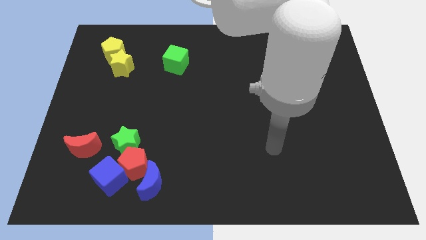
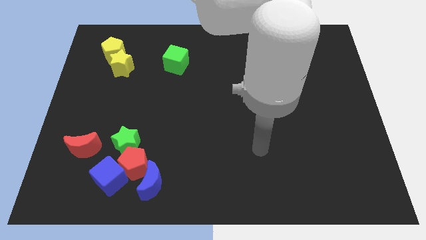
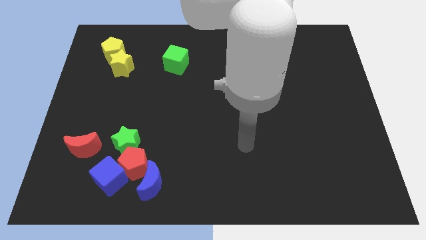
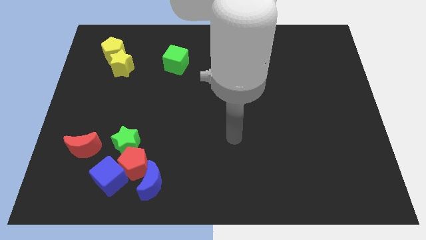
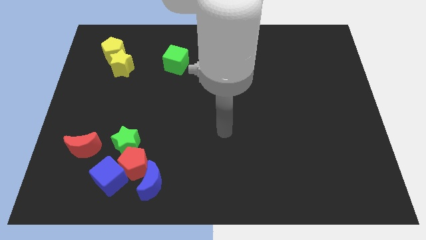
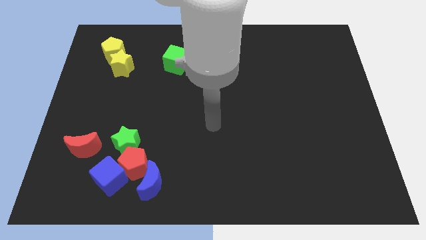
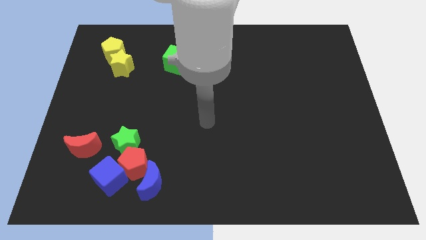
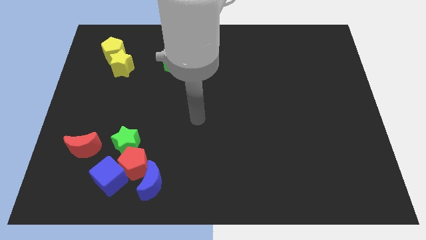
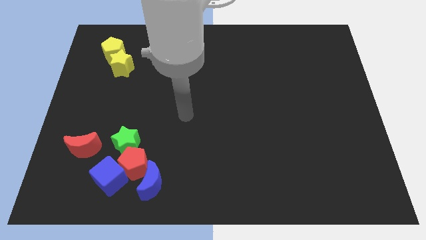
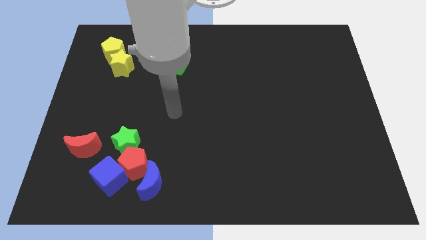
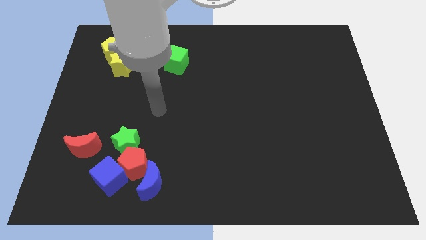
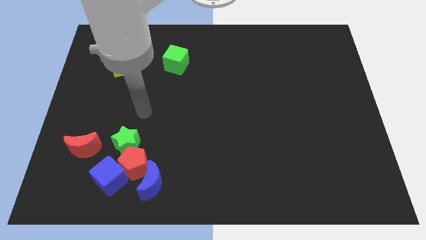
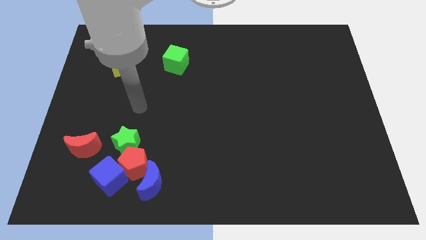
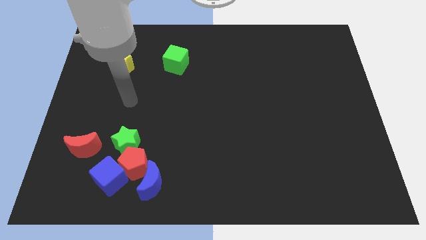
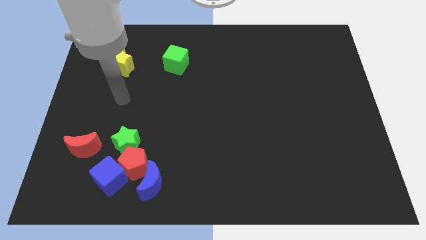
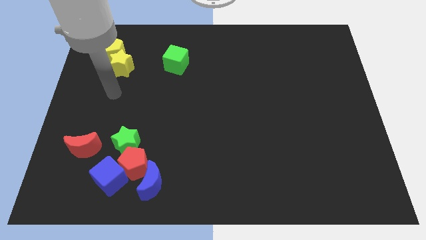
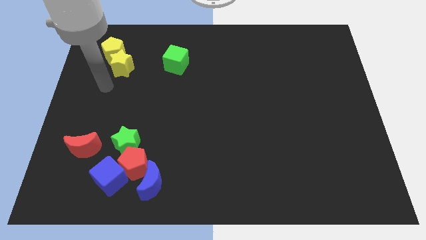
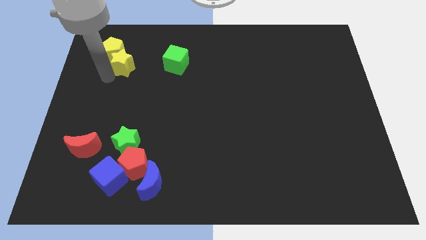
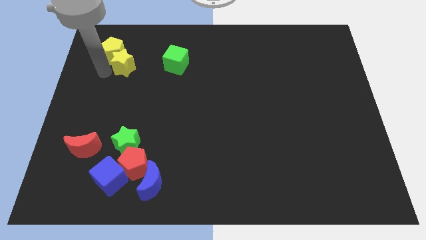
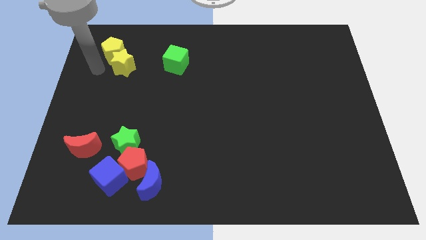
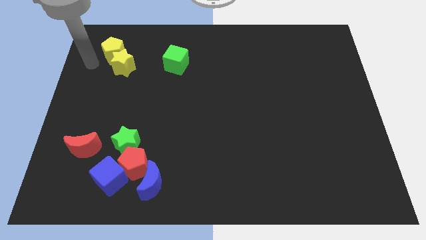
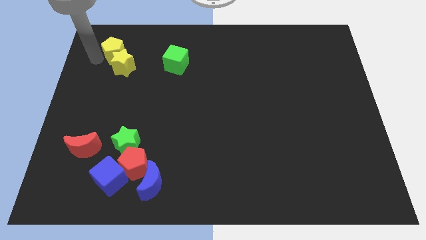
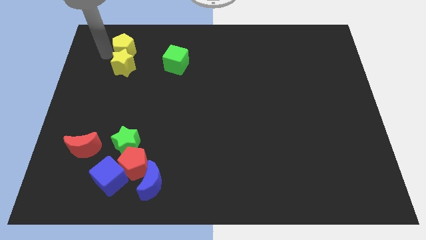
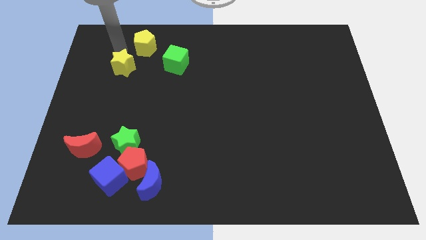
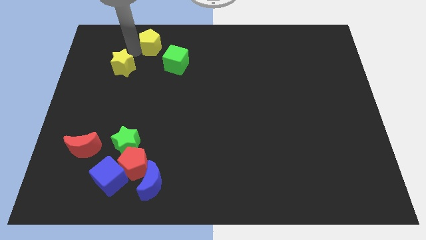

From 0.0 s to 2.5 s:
move the yellow star away from the yellow pentagon

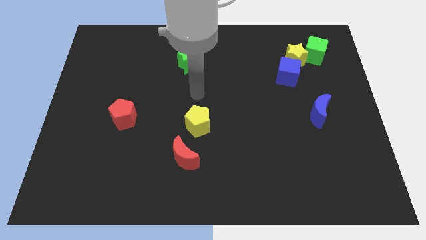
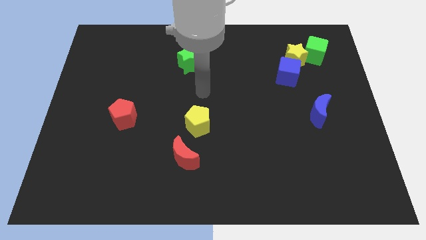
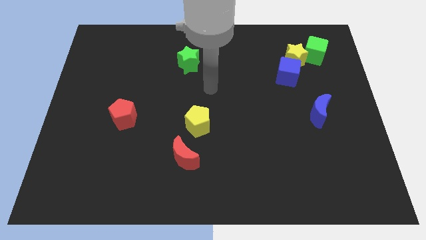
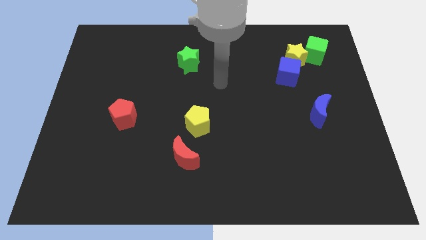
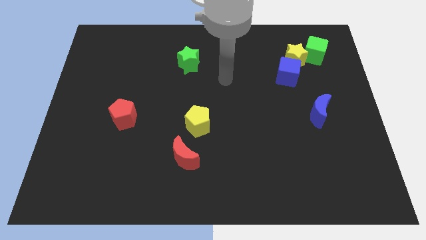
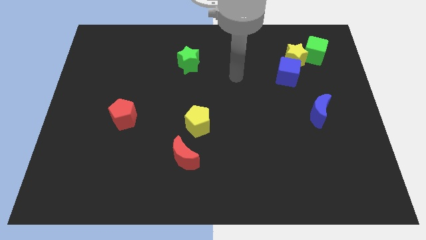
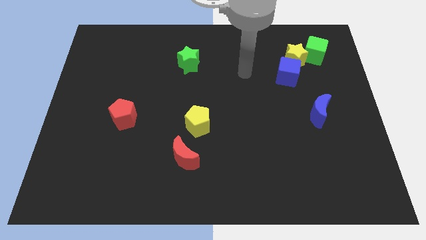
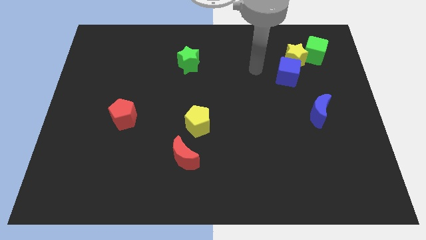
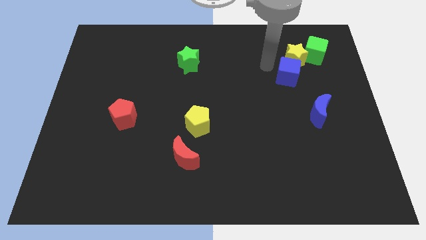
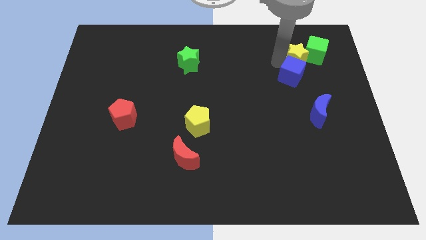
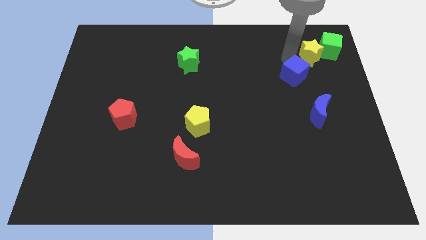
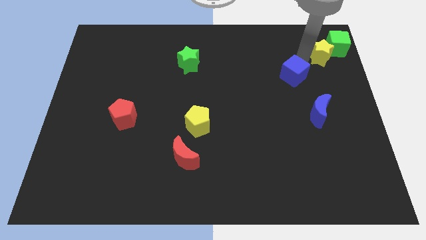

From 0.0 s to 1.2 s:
move the blue cube away from the yellow star

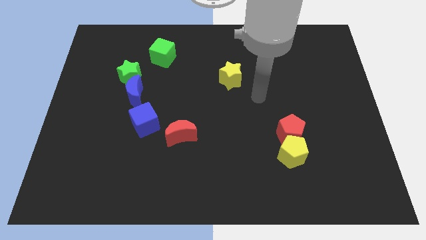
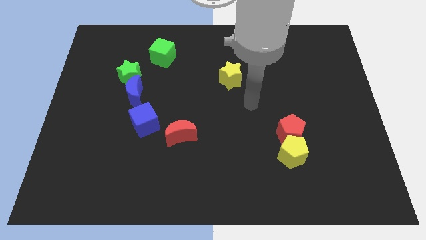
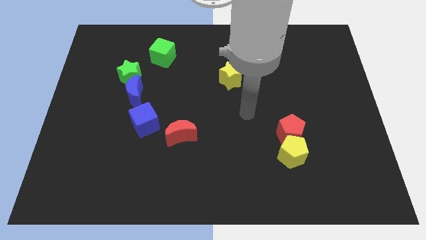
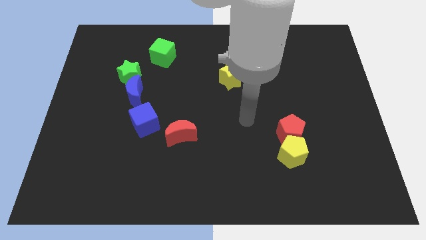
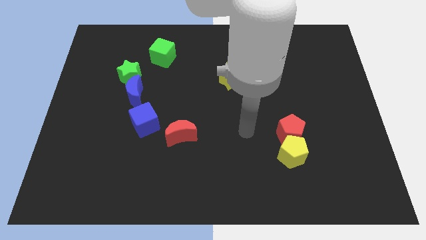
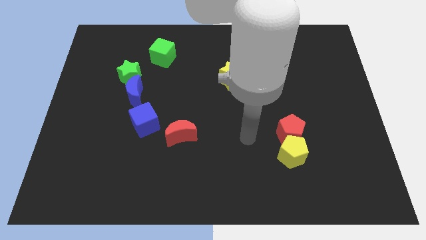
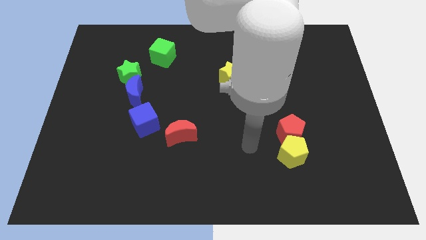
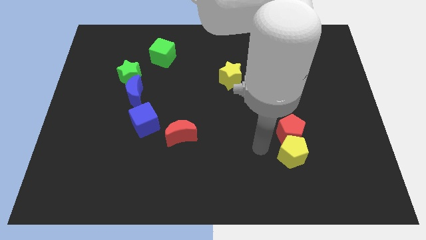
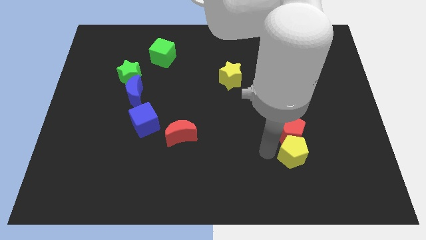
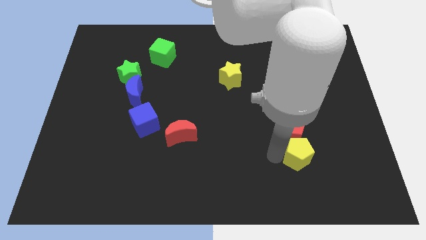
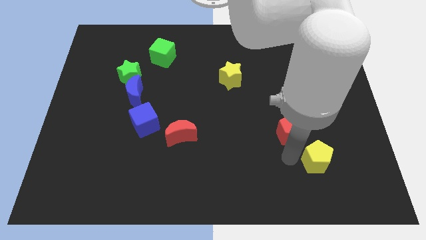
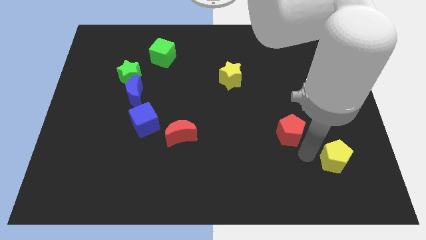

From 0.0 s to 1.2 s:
pull the red pentagon apart from the yellow pentagon

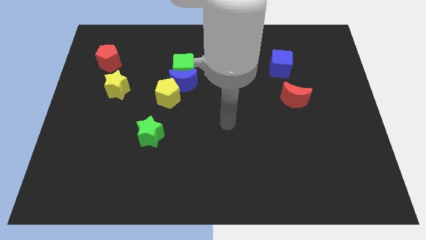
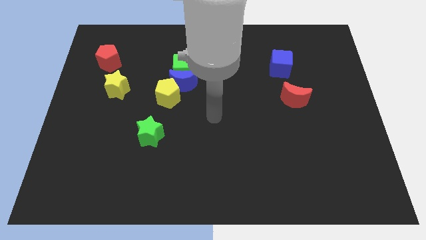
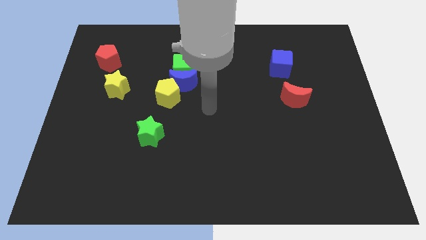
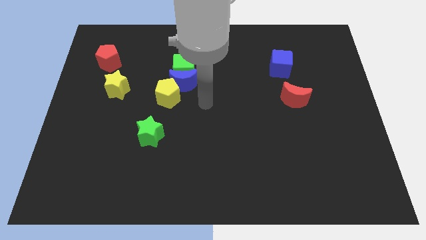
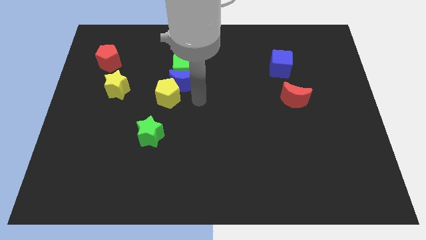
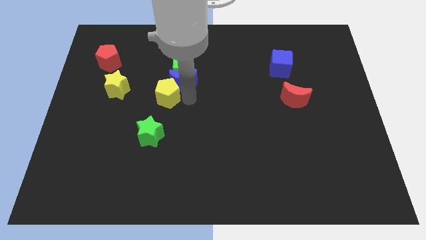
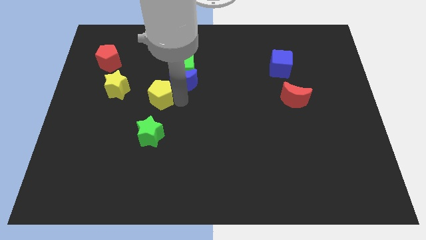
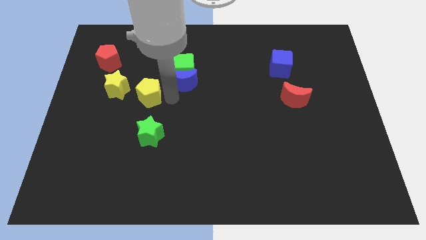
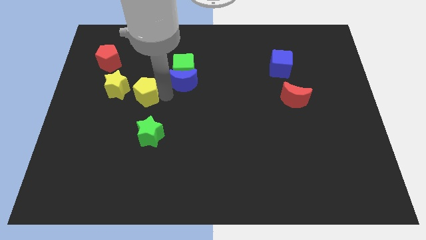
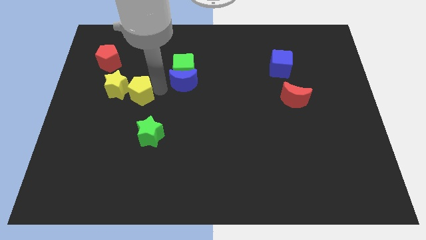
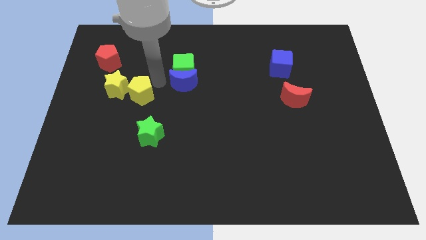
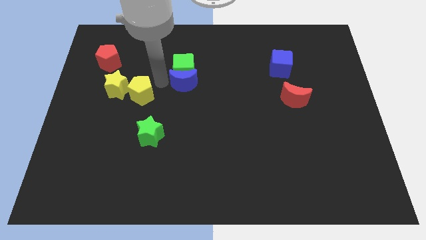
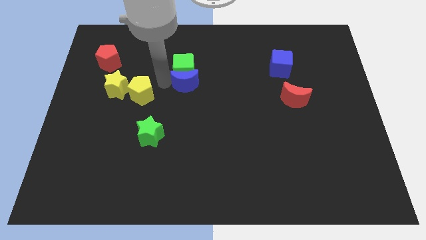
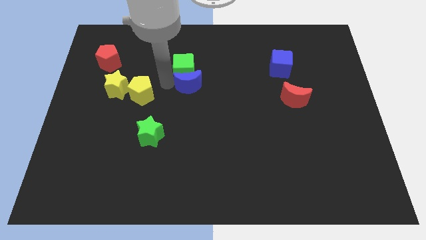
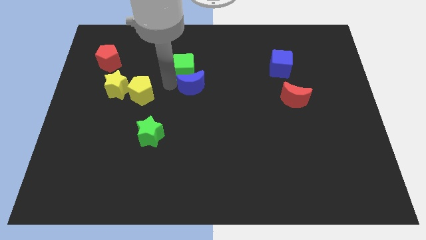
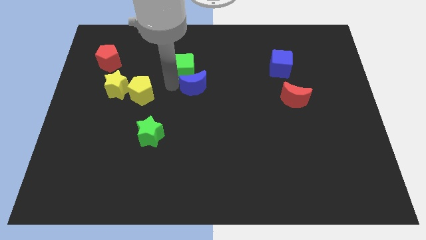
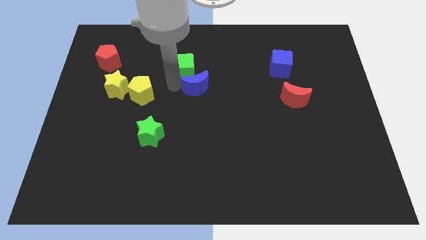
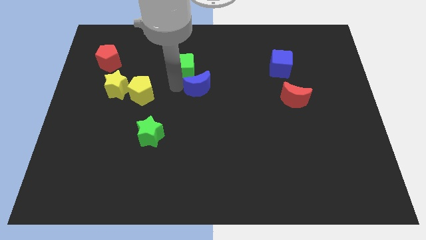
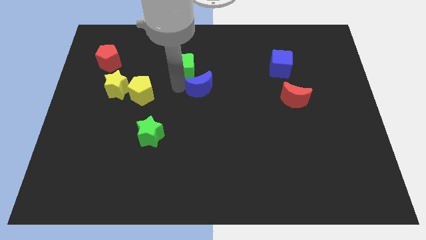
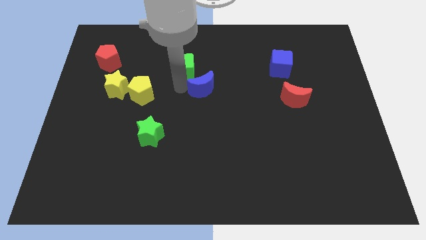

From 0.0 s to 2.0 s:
move the blue moon away from the green cube and yellow pentagon

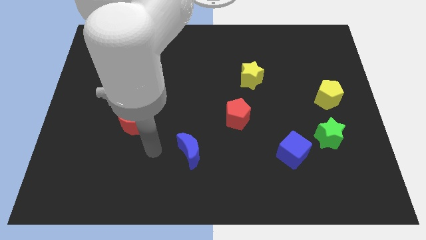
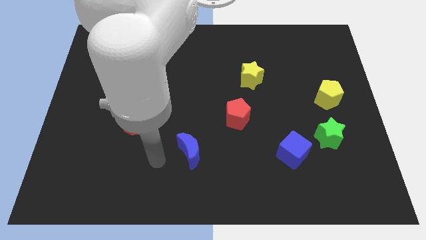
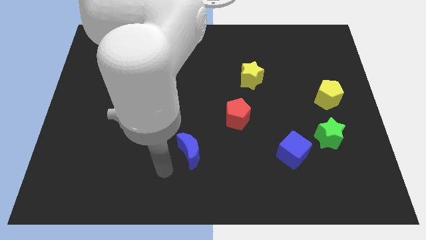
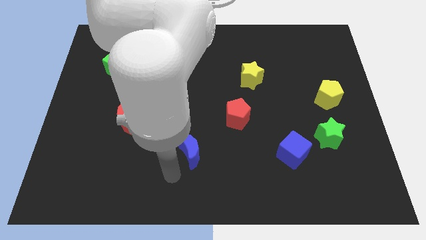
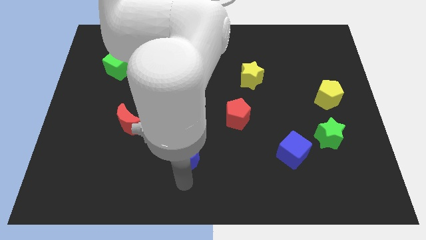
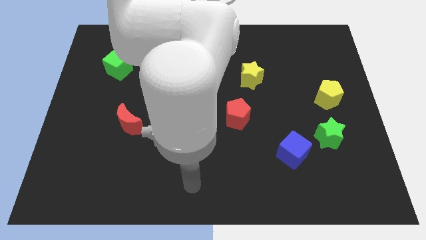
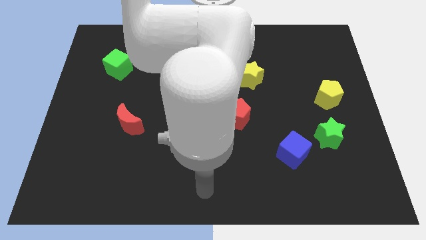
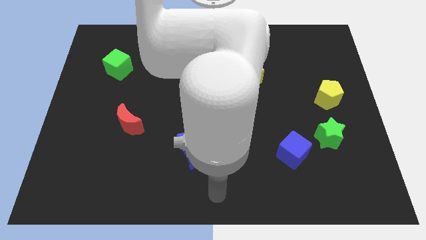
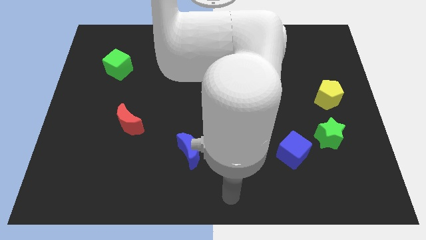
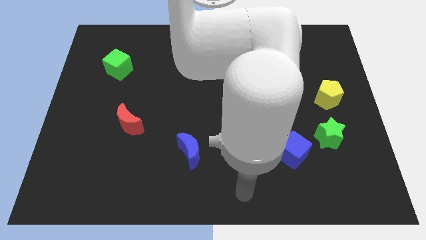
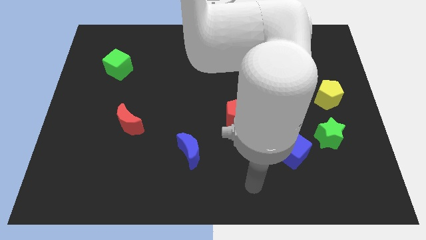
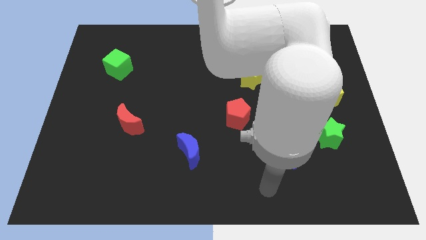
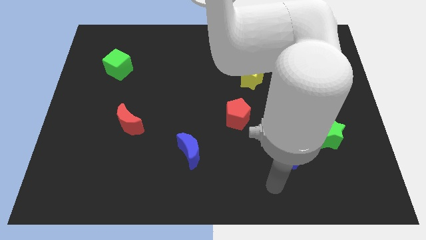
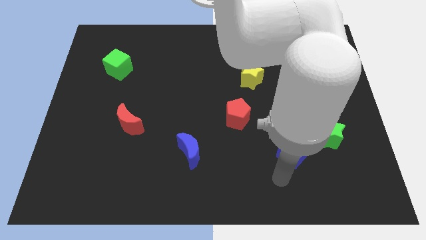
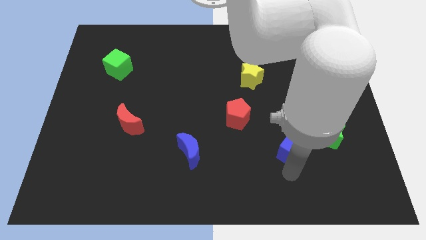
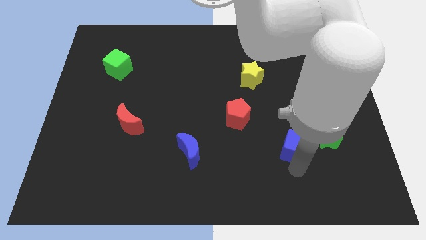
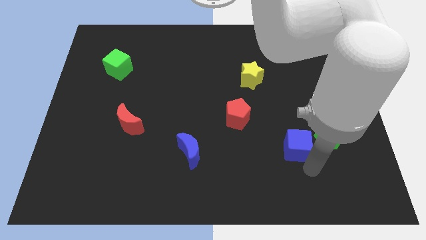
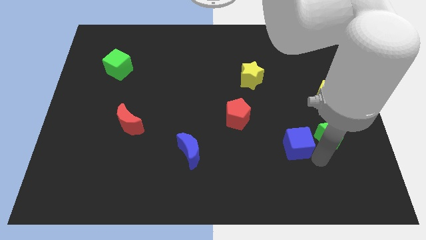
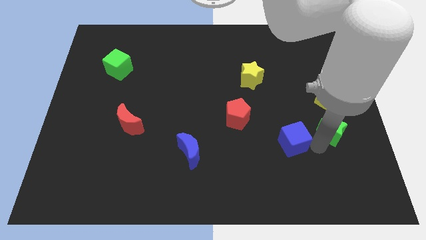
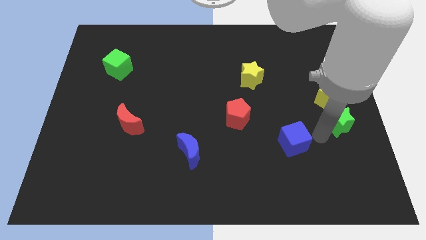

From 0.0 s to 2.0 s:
separate the blue cube from the green star

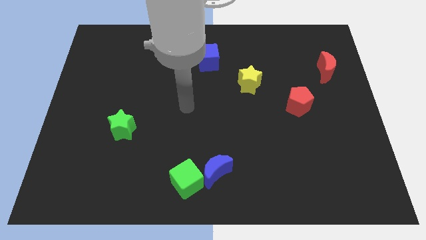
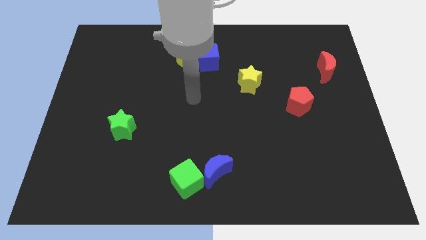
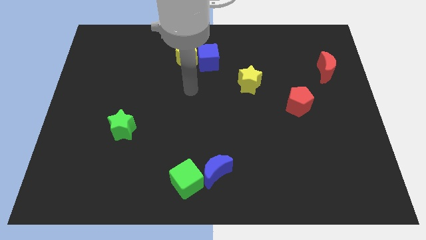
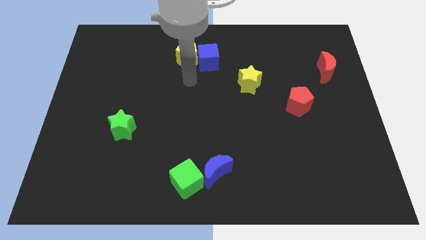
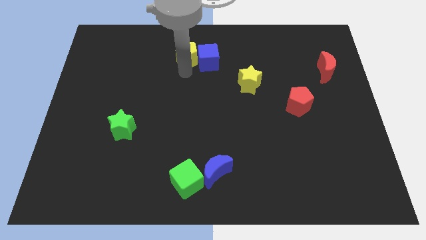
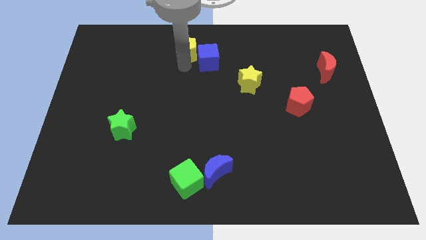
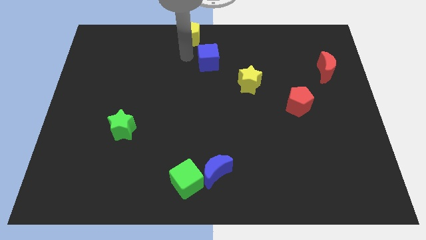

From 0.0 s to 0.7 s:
separate the blue cube from the yellow pentagon
